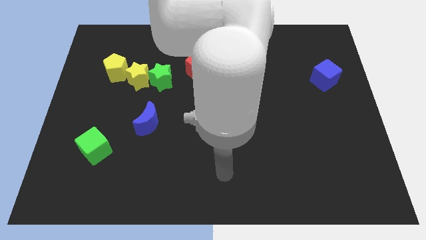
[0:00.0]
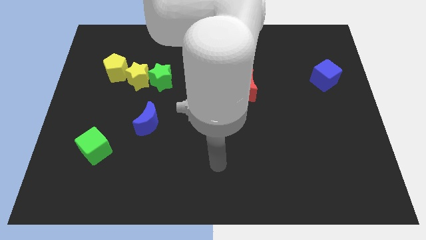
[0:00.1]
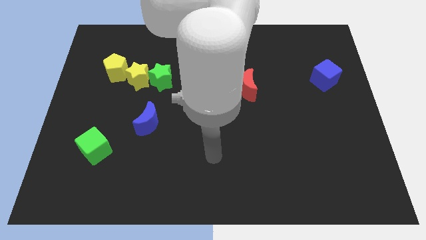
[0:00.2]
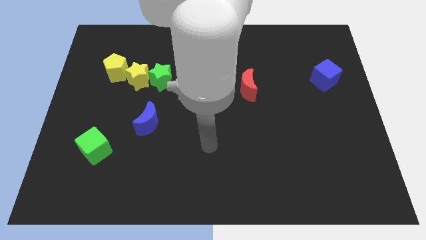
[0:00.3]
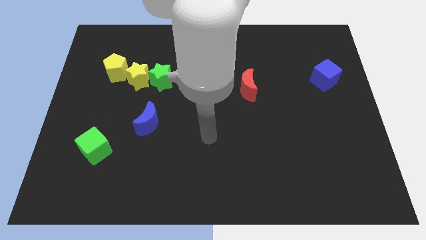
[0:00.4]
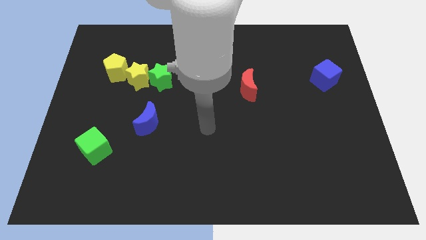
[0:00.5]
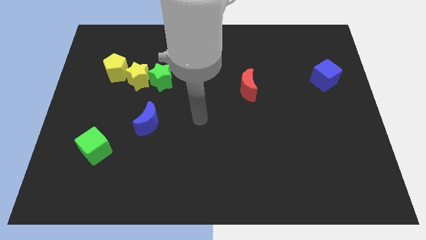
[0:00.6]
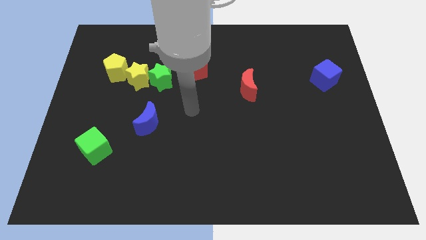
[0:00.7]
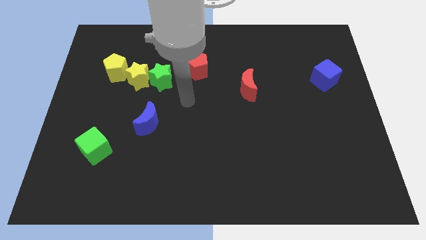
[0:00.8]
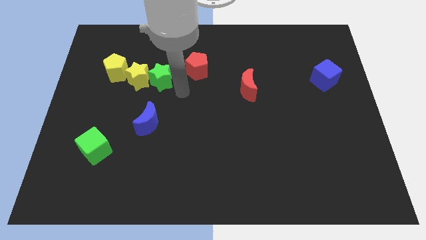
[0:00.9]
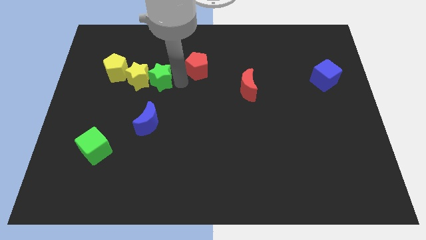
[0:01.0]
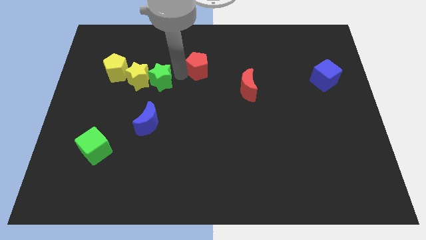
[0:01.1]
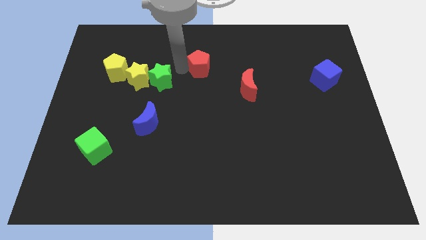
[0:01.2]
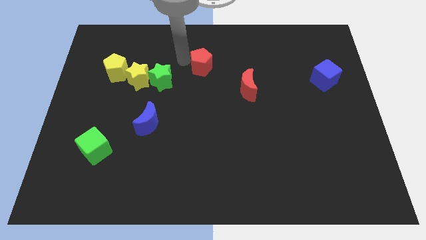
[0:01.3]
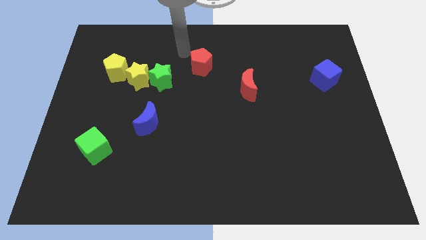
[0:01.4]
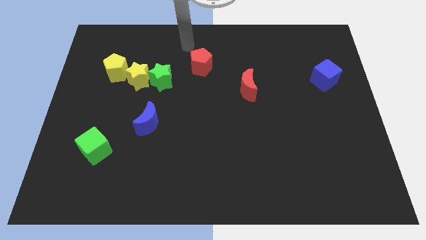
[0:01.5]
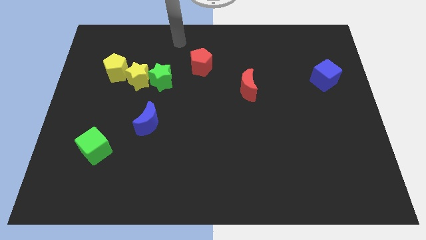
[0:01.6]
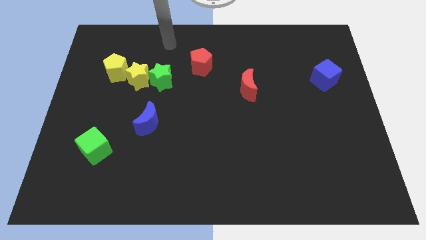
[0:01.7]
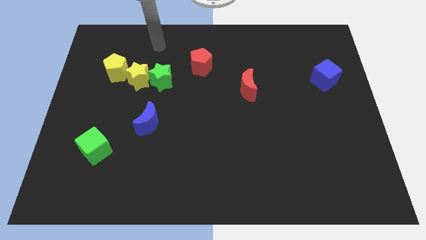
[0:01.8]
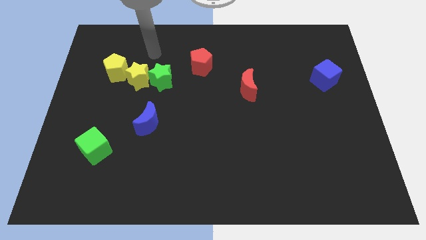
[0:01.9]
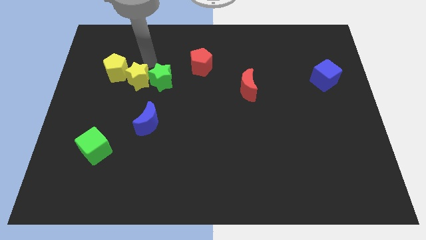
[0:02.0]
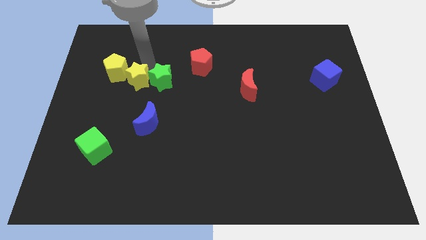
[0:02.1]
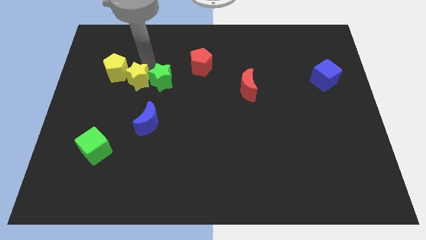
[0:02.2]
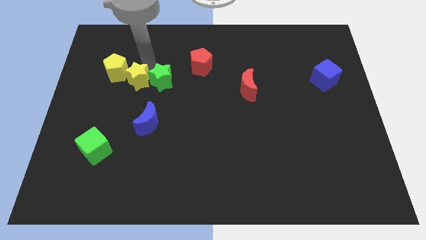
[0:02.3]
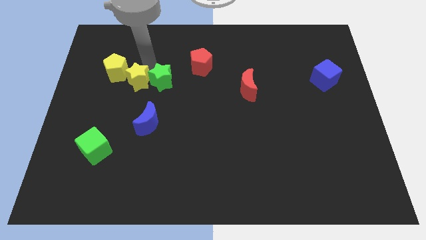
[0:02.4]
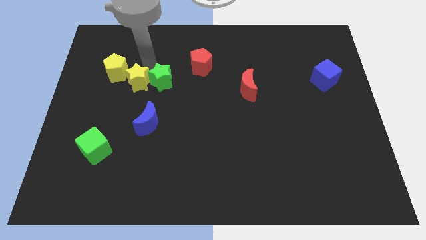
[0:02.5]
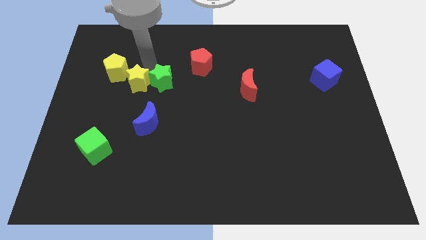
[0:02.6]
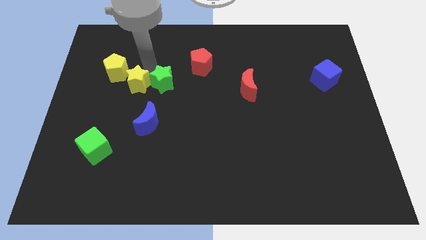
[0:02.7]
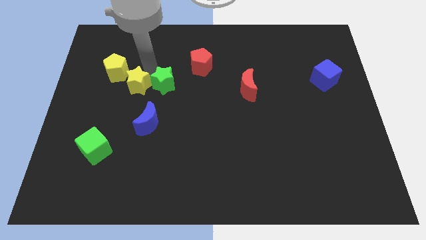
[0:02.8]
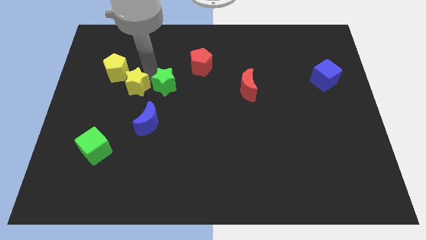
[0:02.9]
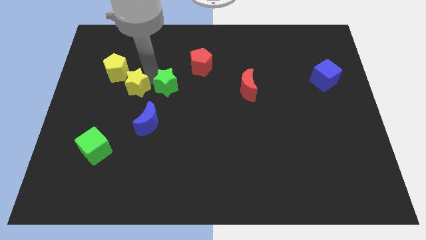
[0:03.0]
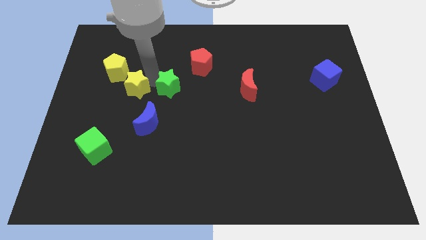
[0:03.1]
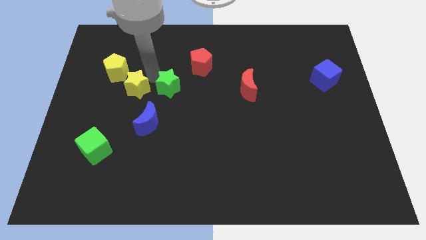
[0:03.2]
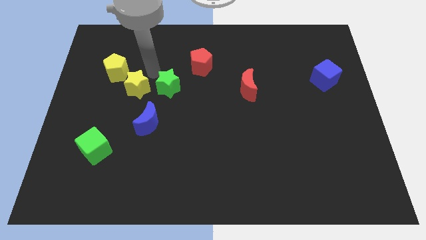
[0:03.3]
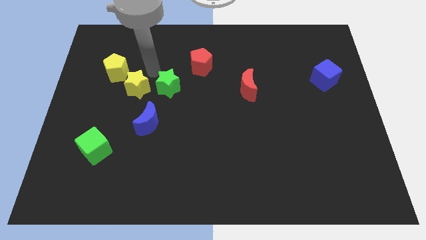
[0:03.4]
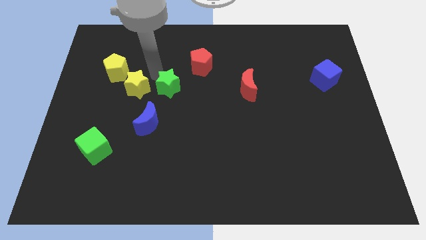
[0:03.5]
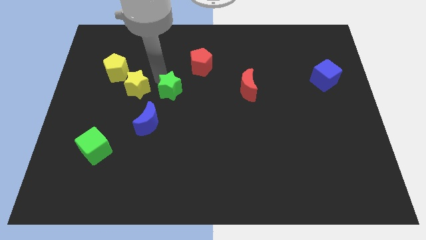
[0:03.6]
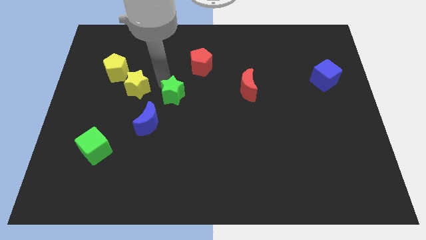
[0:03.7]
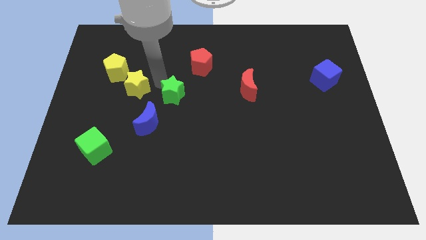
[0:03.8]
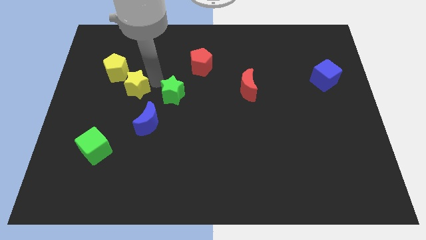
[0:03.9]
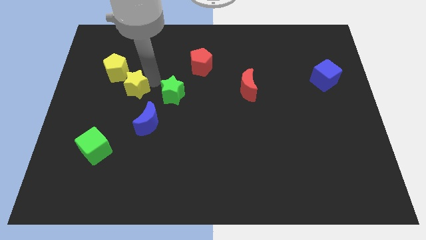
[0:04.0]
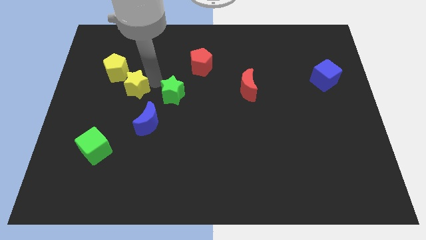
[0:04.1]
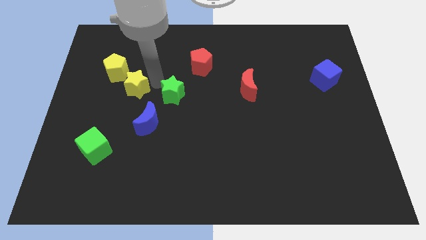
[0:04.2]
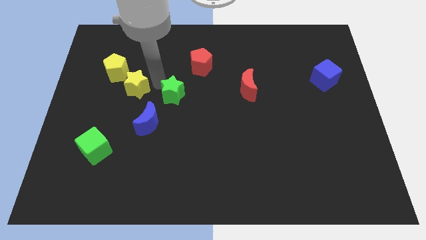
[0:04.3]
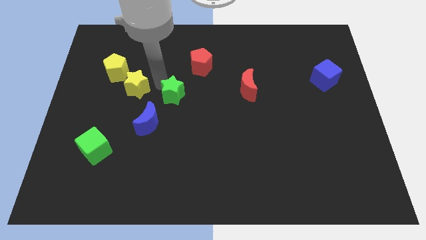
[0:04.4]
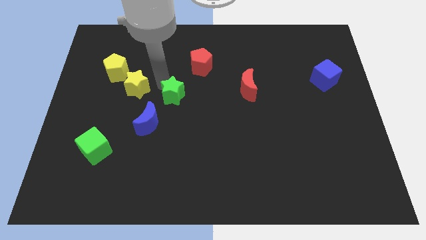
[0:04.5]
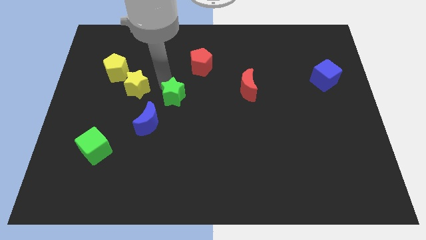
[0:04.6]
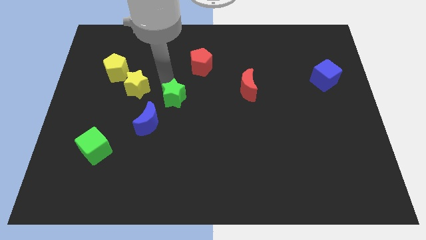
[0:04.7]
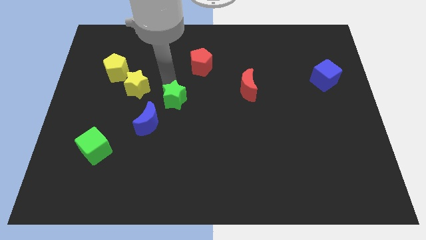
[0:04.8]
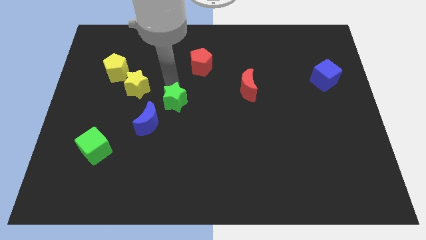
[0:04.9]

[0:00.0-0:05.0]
slightly slide the green star downwards and to the right

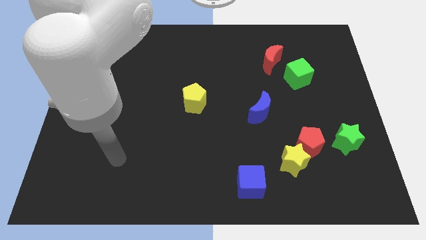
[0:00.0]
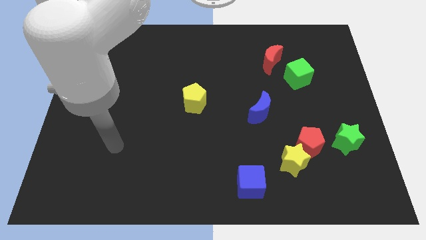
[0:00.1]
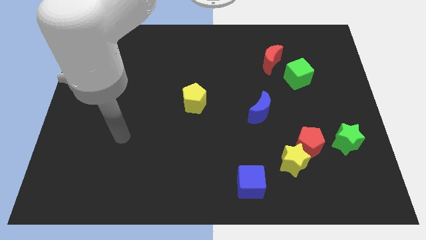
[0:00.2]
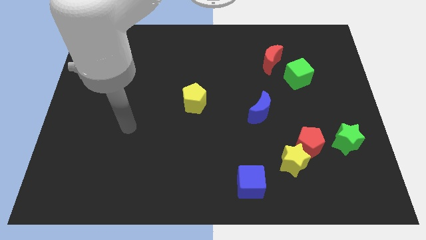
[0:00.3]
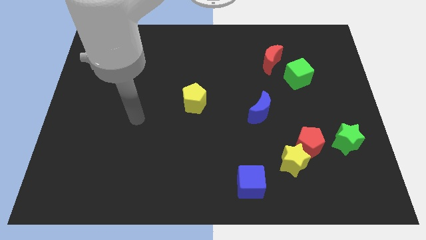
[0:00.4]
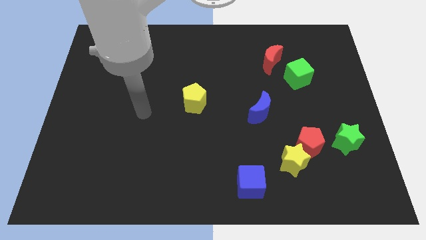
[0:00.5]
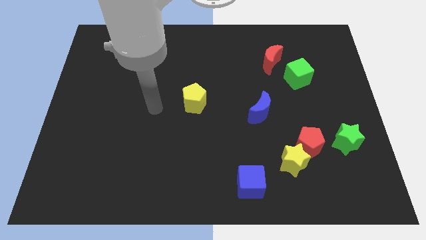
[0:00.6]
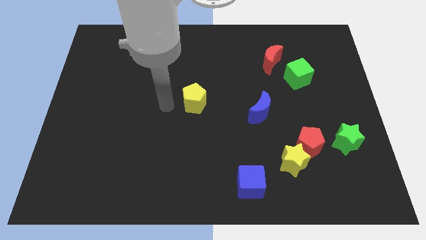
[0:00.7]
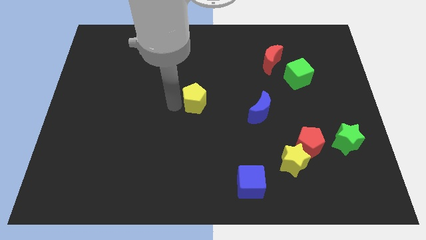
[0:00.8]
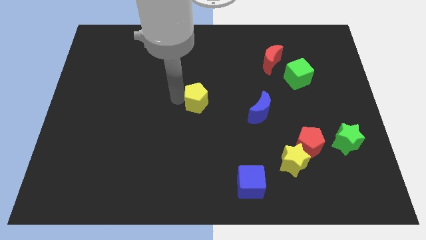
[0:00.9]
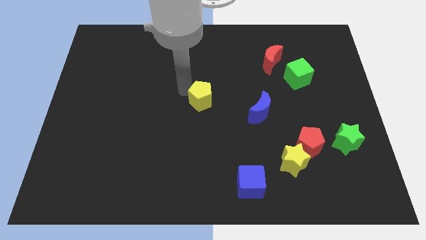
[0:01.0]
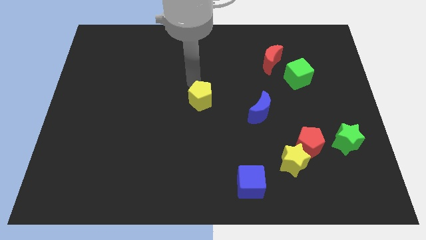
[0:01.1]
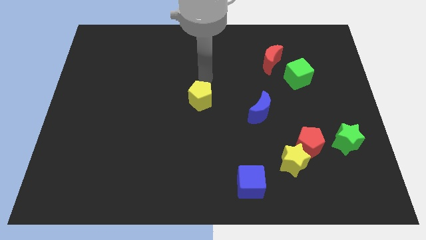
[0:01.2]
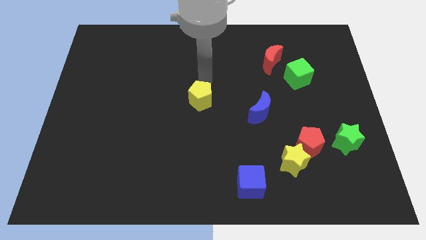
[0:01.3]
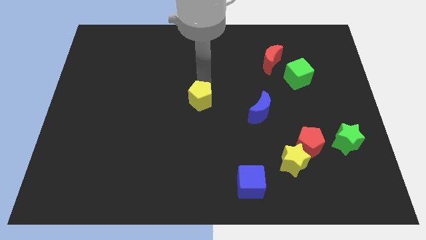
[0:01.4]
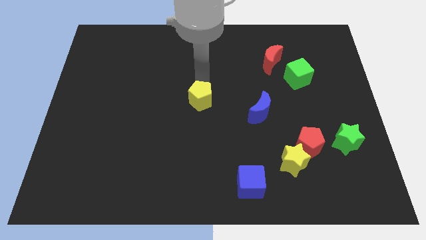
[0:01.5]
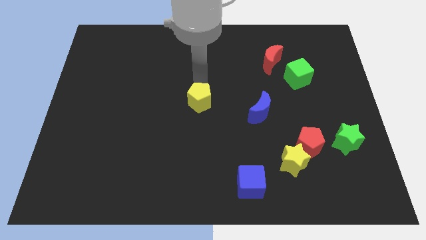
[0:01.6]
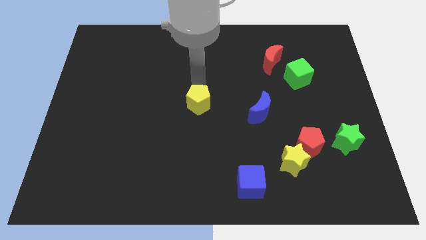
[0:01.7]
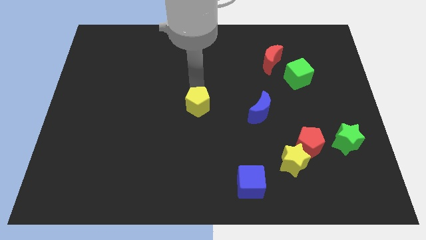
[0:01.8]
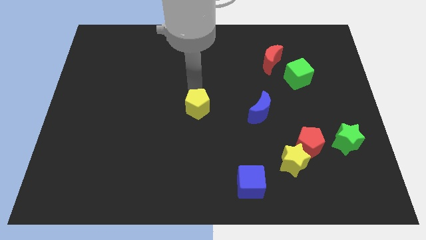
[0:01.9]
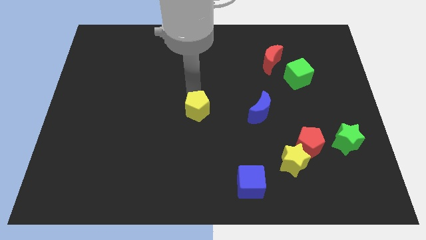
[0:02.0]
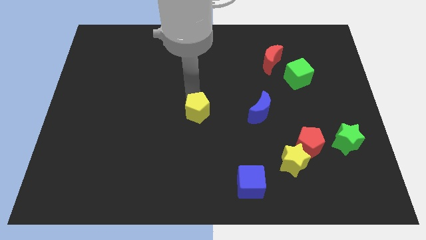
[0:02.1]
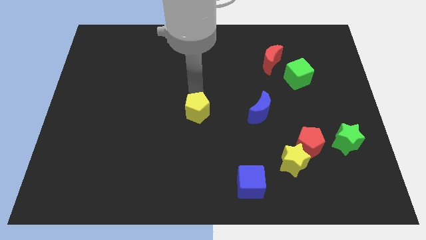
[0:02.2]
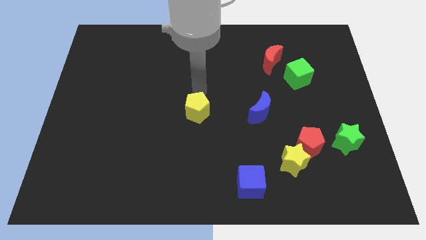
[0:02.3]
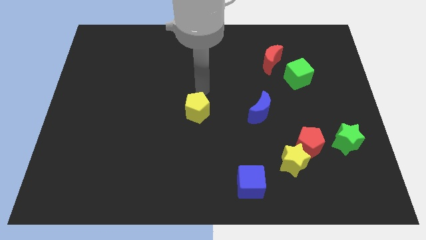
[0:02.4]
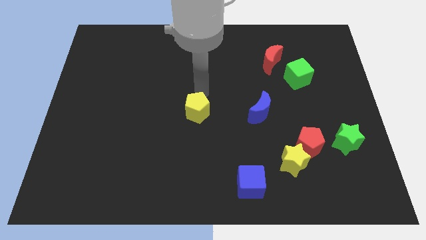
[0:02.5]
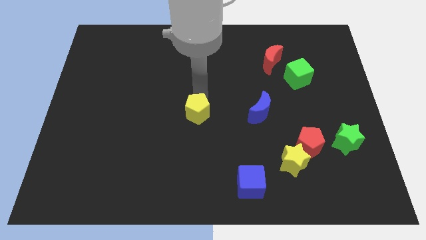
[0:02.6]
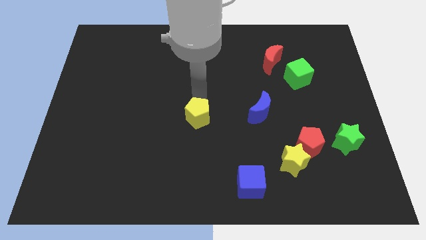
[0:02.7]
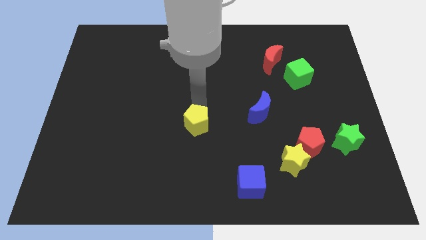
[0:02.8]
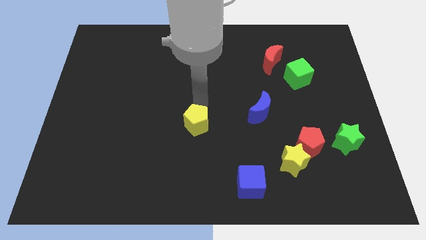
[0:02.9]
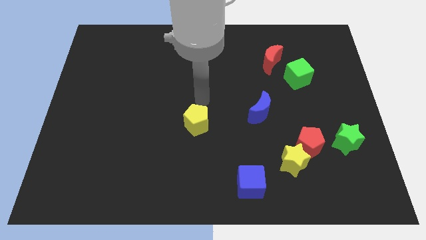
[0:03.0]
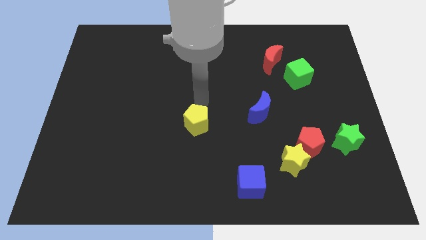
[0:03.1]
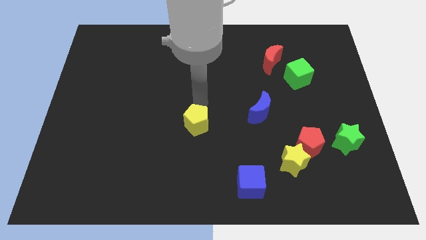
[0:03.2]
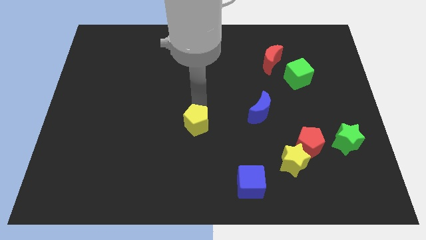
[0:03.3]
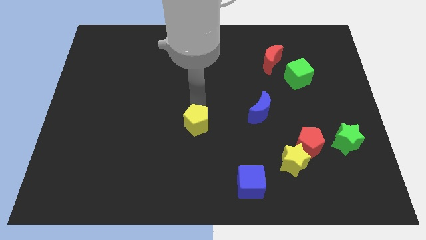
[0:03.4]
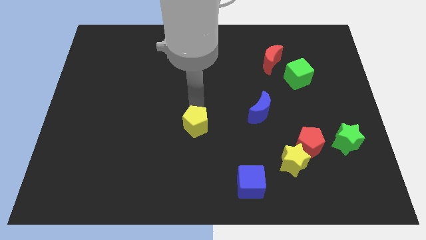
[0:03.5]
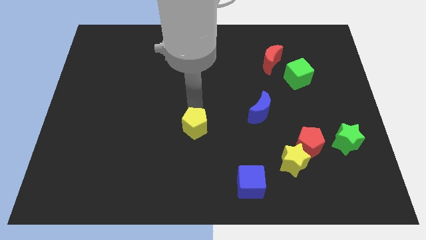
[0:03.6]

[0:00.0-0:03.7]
push the yellow pentagon a little downwards
